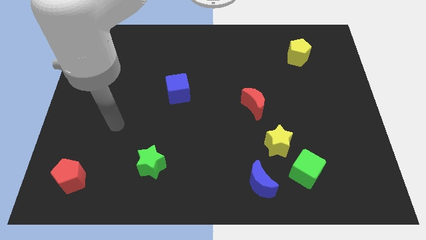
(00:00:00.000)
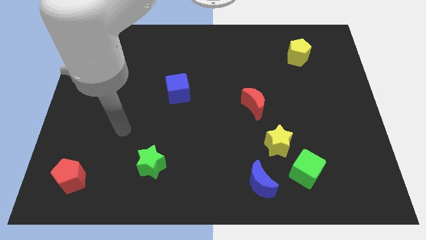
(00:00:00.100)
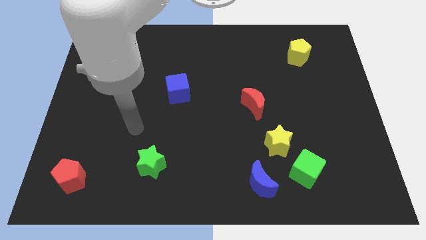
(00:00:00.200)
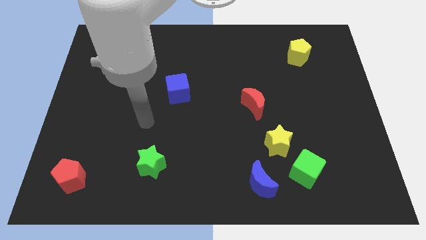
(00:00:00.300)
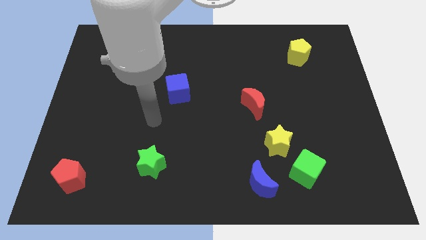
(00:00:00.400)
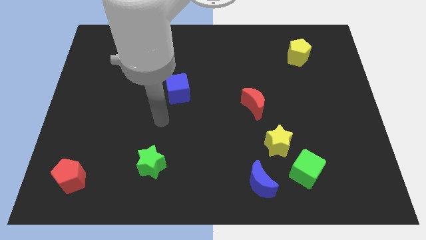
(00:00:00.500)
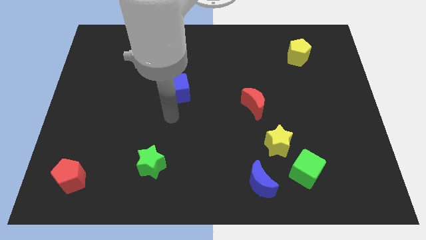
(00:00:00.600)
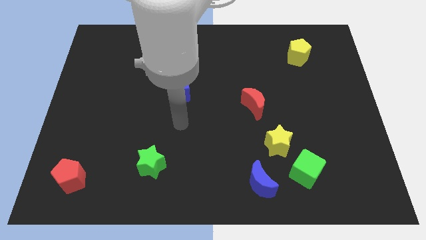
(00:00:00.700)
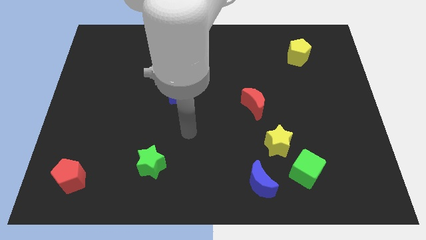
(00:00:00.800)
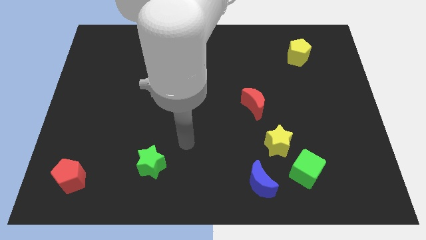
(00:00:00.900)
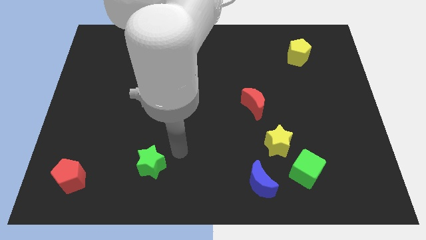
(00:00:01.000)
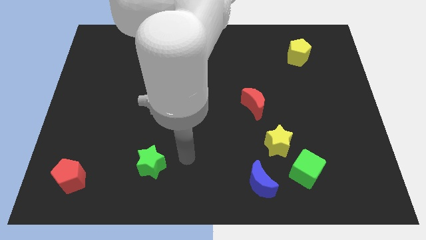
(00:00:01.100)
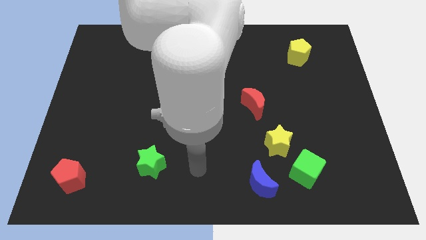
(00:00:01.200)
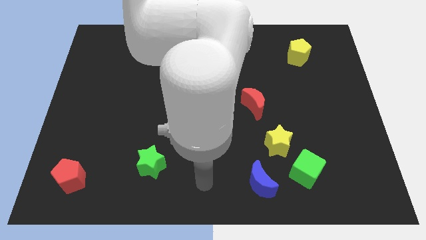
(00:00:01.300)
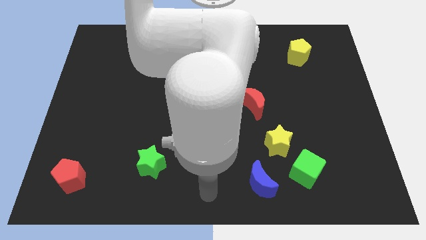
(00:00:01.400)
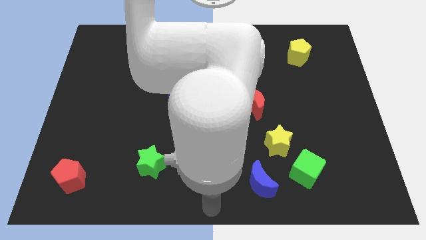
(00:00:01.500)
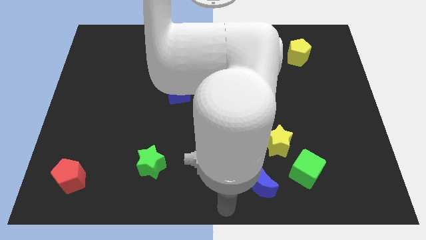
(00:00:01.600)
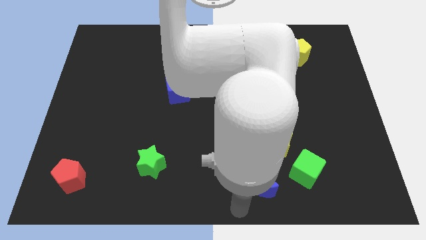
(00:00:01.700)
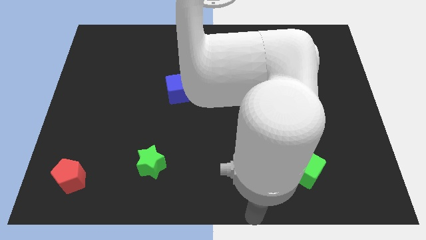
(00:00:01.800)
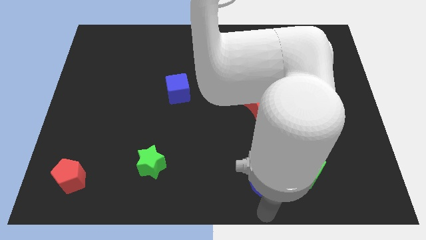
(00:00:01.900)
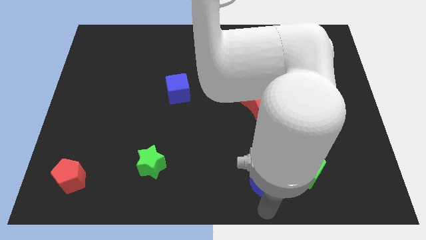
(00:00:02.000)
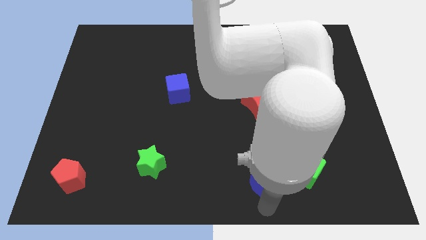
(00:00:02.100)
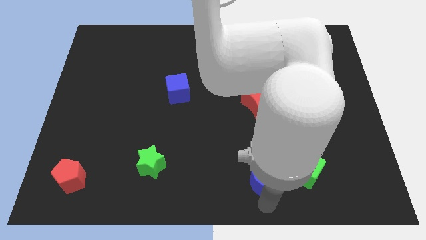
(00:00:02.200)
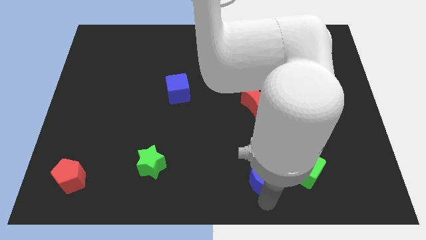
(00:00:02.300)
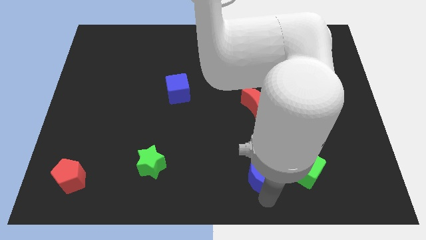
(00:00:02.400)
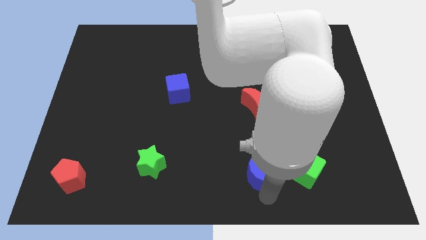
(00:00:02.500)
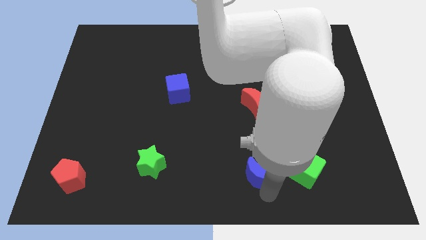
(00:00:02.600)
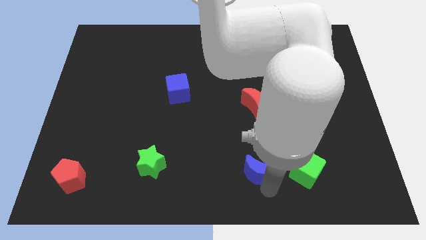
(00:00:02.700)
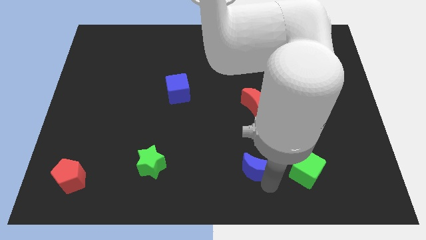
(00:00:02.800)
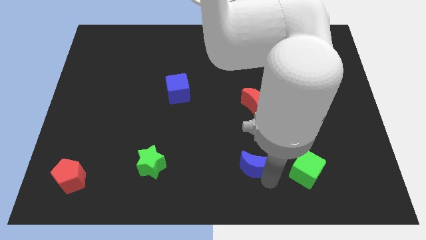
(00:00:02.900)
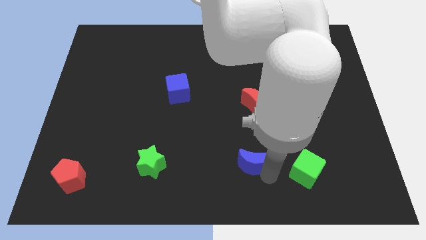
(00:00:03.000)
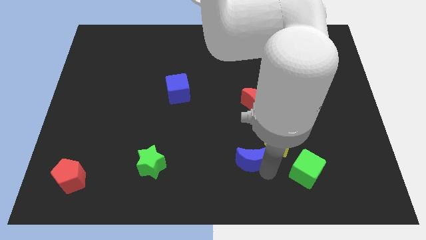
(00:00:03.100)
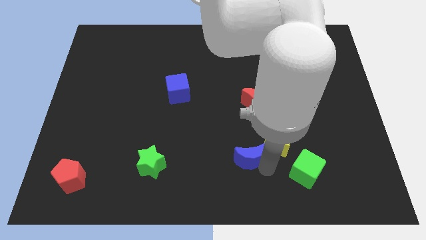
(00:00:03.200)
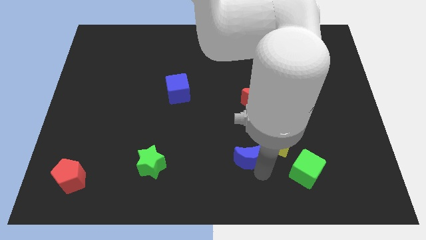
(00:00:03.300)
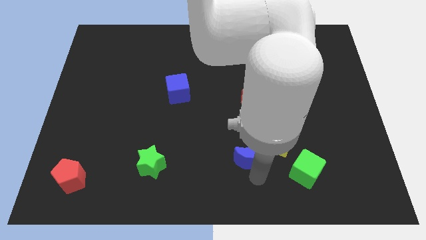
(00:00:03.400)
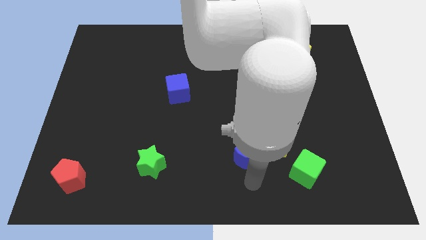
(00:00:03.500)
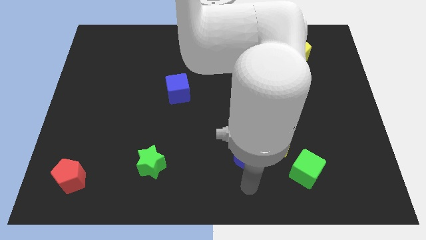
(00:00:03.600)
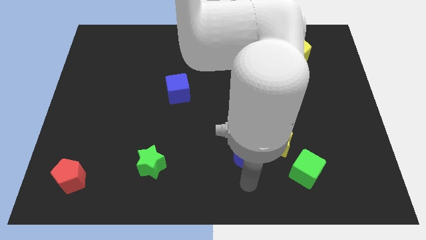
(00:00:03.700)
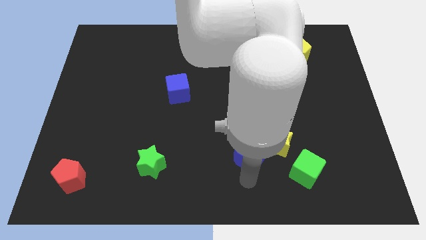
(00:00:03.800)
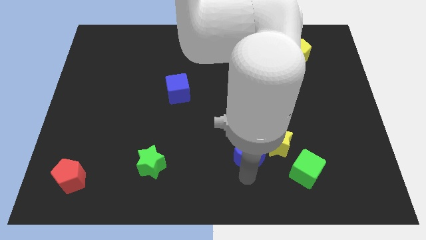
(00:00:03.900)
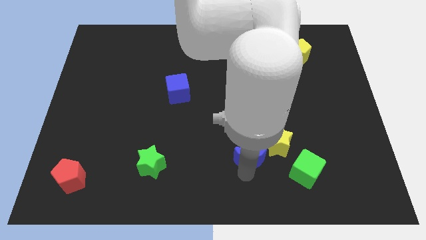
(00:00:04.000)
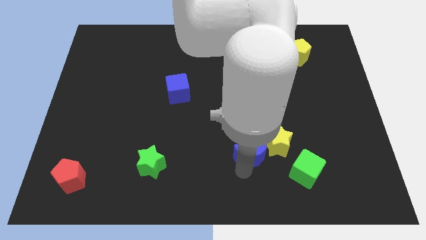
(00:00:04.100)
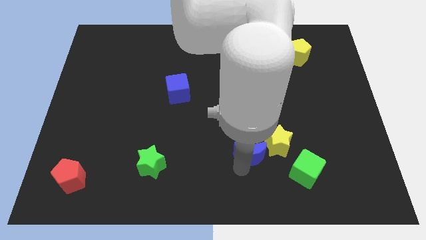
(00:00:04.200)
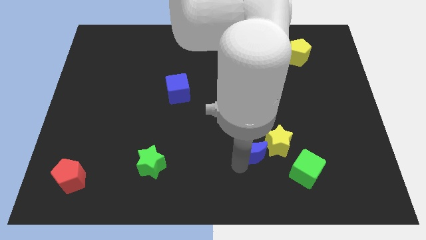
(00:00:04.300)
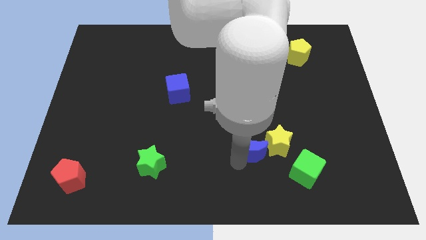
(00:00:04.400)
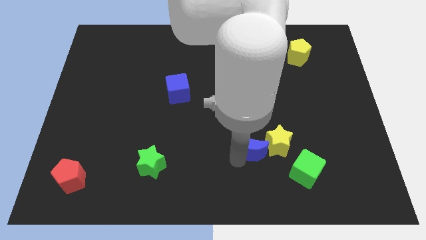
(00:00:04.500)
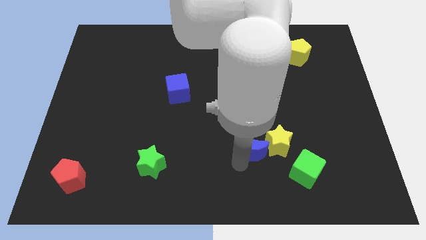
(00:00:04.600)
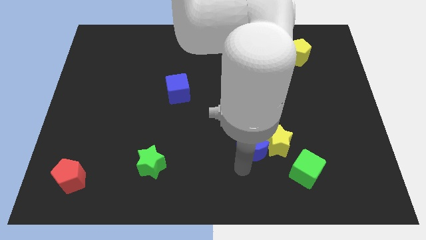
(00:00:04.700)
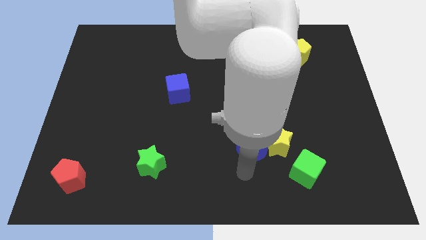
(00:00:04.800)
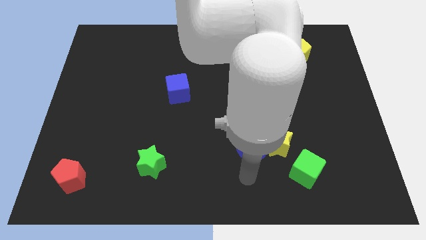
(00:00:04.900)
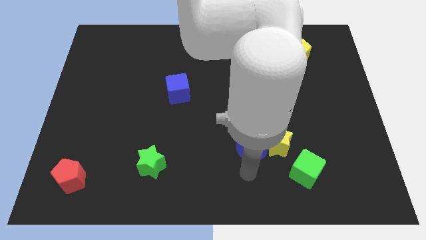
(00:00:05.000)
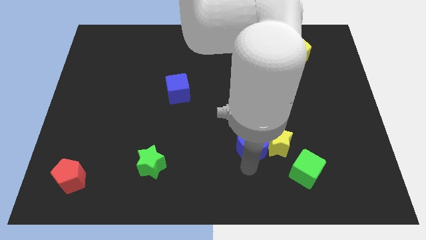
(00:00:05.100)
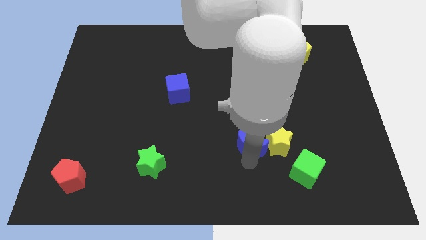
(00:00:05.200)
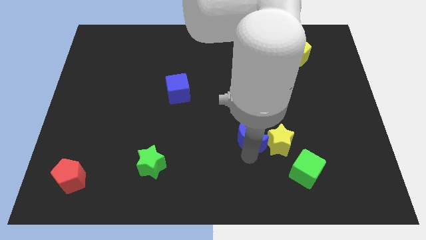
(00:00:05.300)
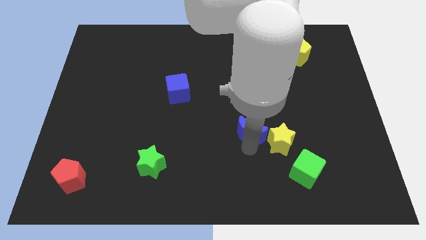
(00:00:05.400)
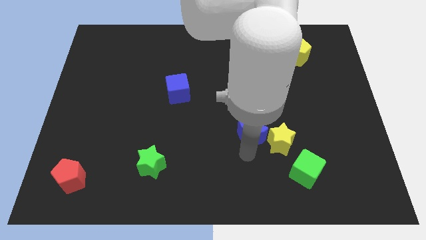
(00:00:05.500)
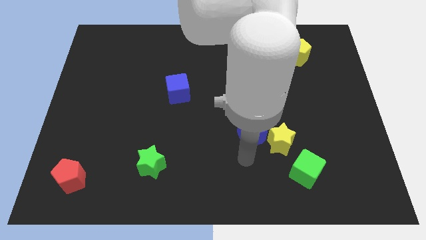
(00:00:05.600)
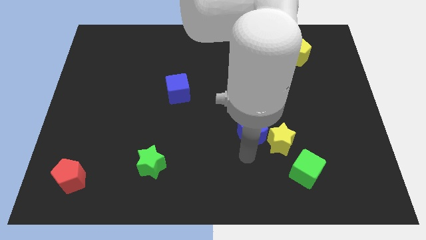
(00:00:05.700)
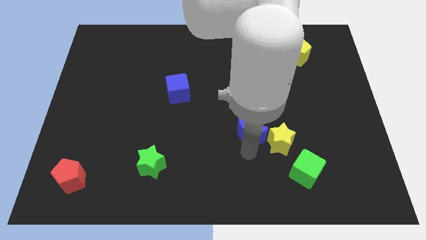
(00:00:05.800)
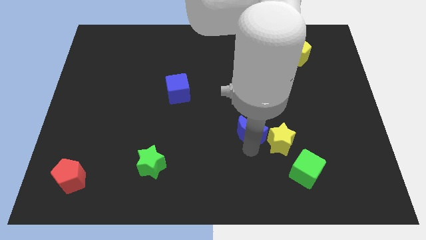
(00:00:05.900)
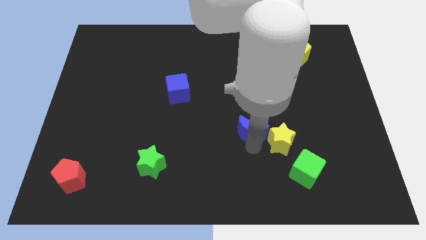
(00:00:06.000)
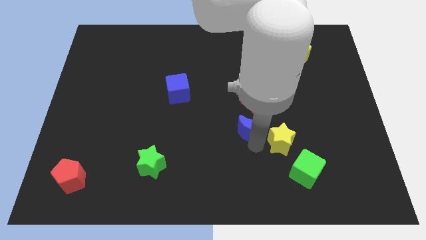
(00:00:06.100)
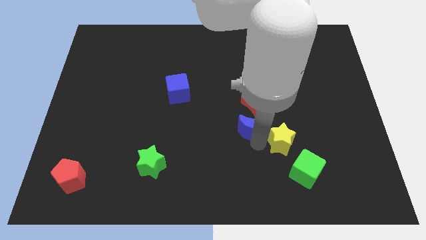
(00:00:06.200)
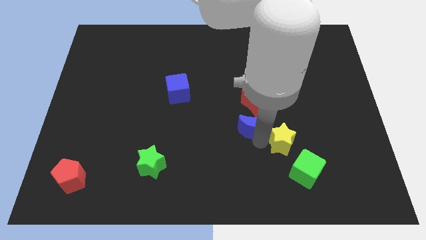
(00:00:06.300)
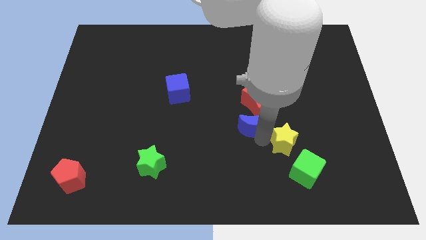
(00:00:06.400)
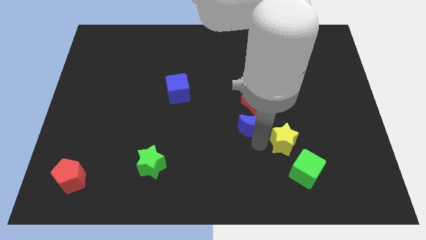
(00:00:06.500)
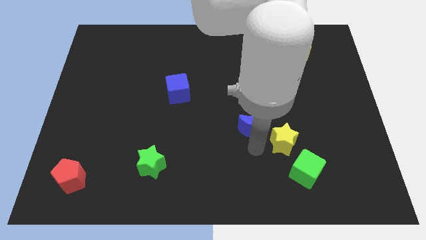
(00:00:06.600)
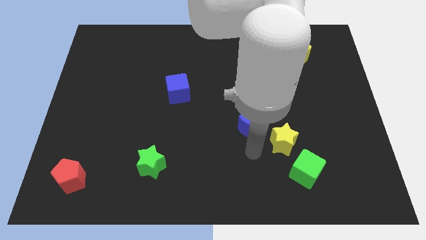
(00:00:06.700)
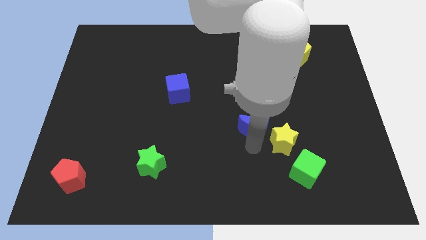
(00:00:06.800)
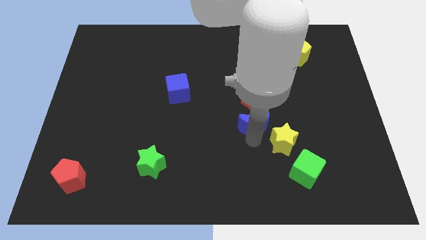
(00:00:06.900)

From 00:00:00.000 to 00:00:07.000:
slide the blue moon next to the red moon

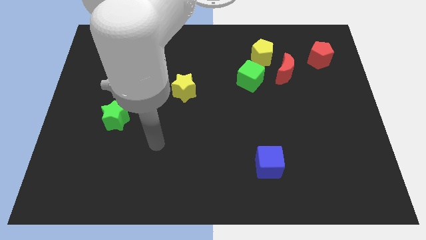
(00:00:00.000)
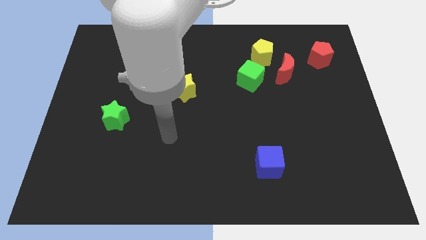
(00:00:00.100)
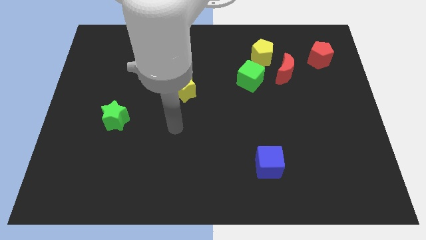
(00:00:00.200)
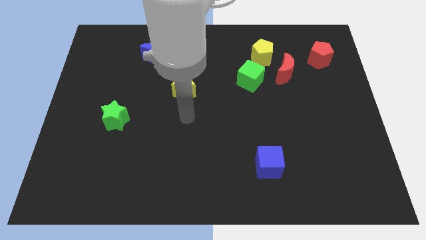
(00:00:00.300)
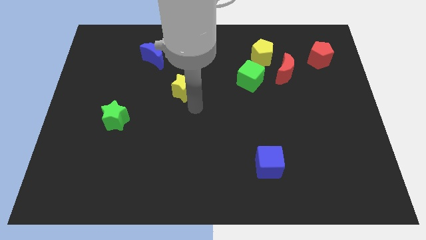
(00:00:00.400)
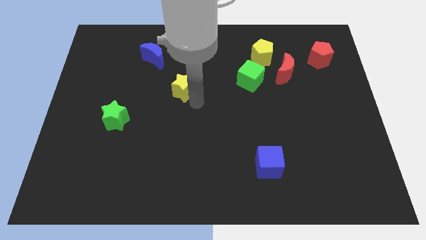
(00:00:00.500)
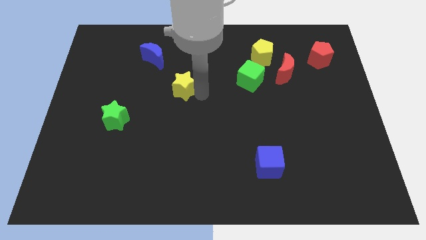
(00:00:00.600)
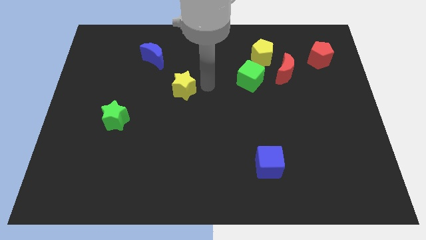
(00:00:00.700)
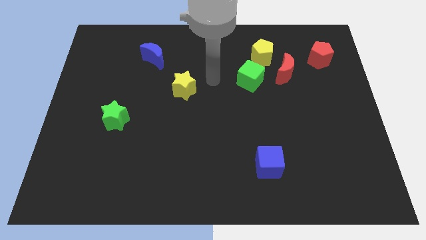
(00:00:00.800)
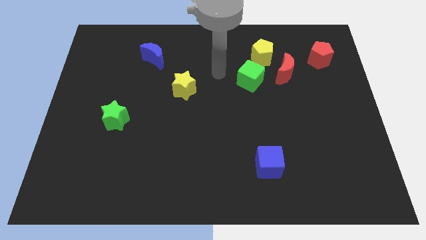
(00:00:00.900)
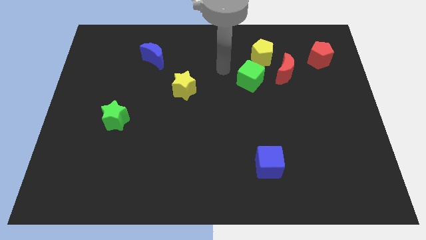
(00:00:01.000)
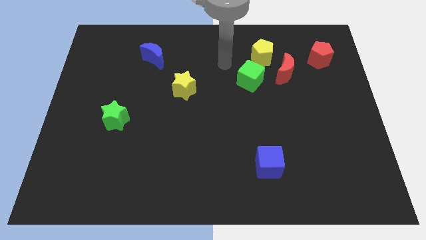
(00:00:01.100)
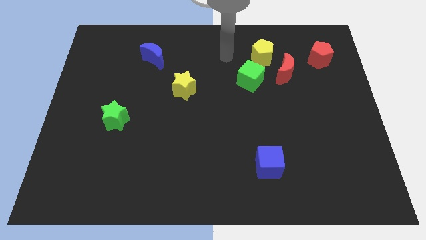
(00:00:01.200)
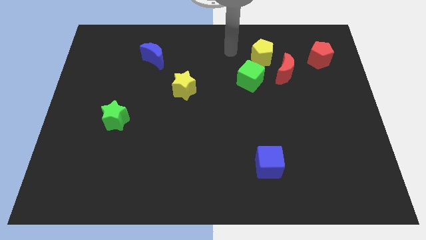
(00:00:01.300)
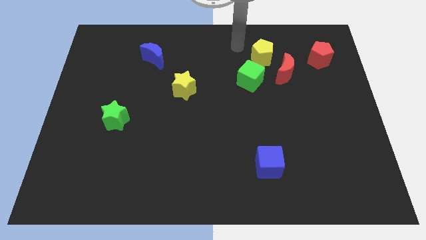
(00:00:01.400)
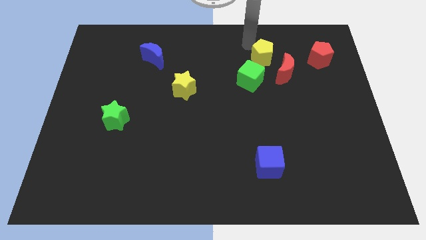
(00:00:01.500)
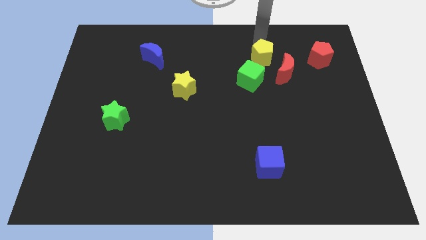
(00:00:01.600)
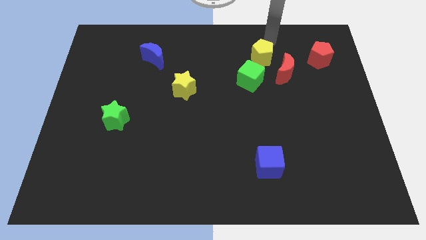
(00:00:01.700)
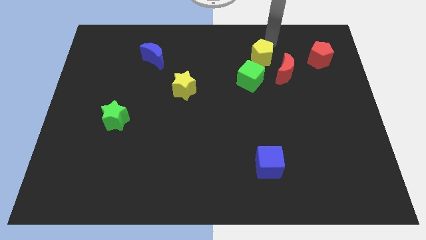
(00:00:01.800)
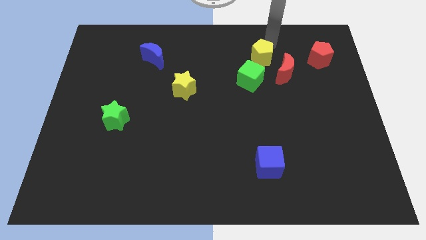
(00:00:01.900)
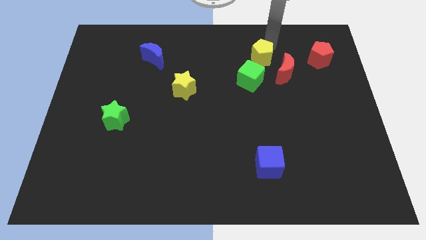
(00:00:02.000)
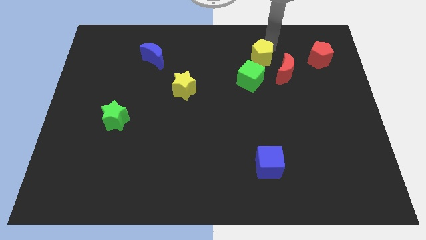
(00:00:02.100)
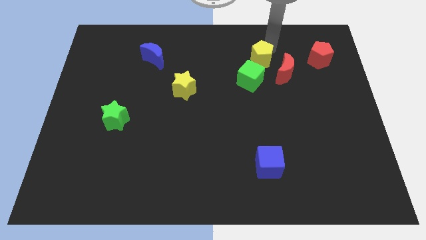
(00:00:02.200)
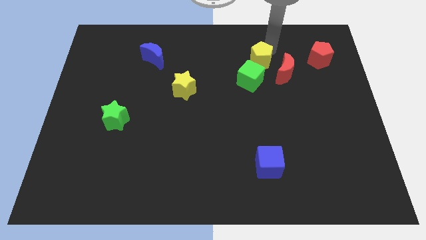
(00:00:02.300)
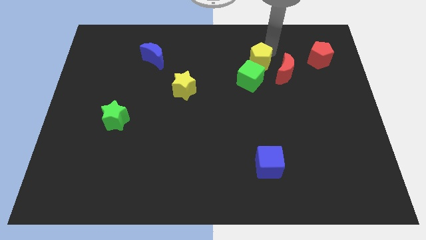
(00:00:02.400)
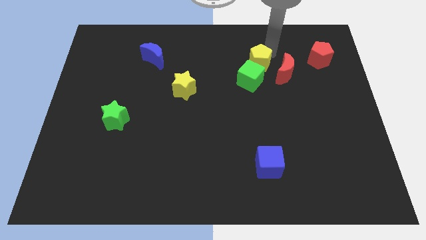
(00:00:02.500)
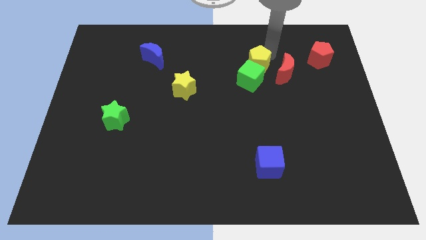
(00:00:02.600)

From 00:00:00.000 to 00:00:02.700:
put the yellow pentagon close to the green cube
